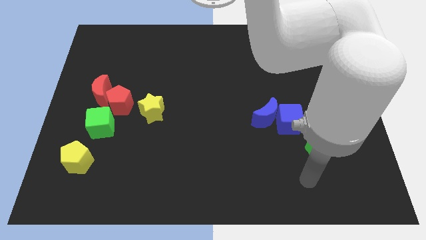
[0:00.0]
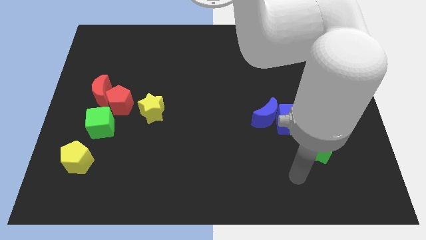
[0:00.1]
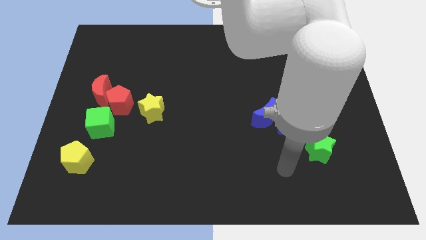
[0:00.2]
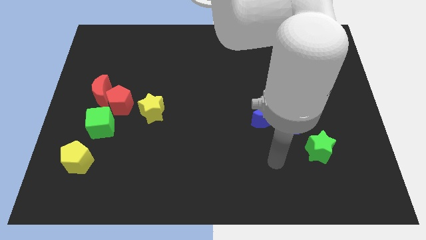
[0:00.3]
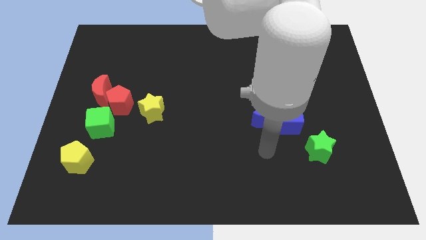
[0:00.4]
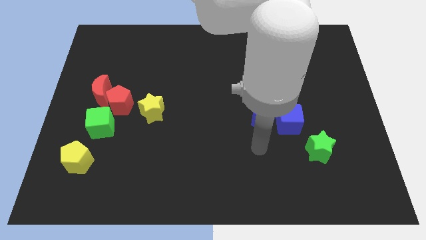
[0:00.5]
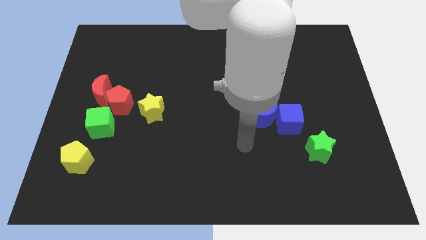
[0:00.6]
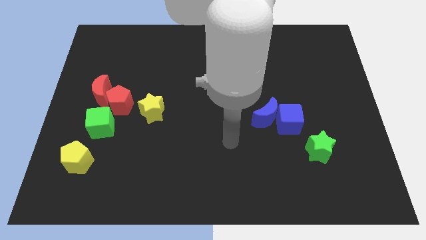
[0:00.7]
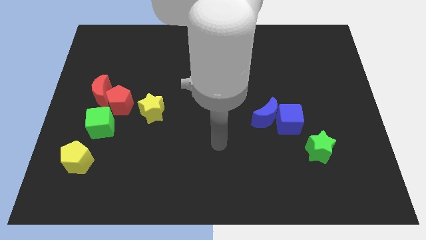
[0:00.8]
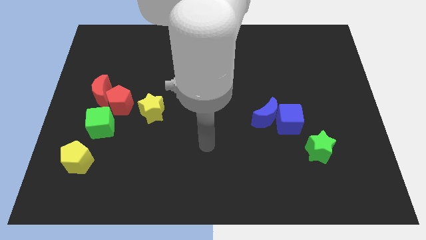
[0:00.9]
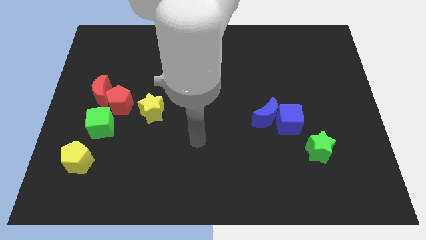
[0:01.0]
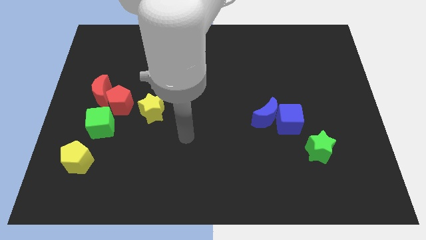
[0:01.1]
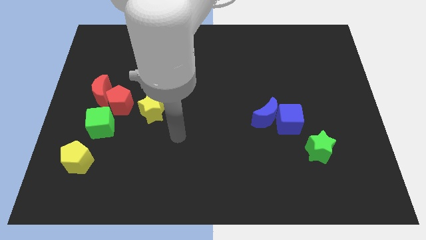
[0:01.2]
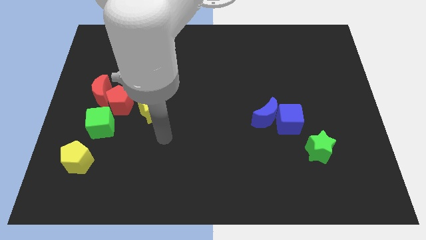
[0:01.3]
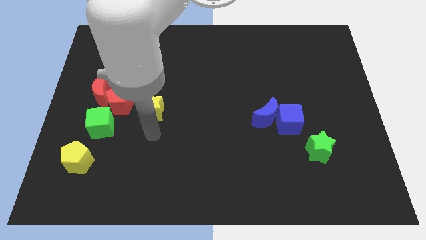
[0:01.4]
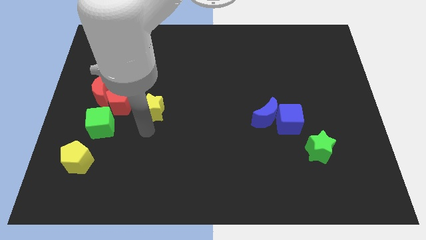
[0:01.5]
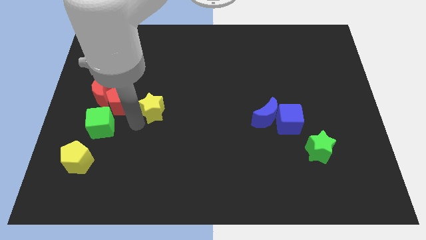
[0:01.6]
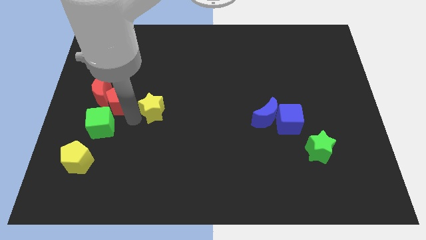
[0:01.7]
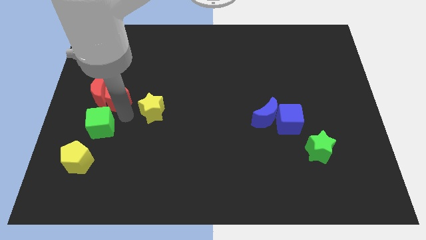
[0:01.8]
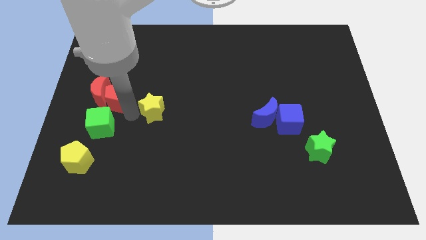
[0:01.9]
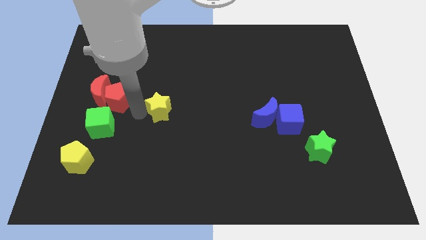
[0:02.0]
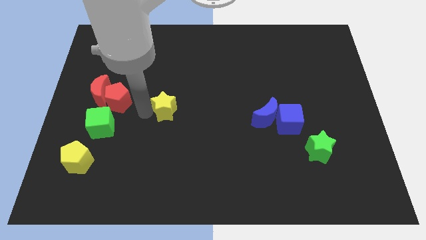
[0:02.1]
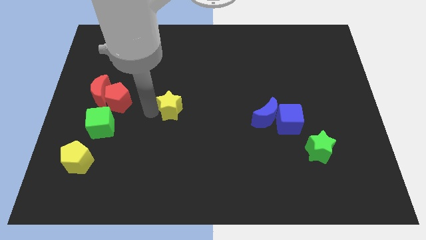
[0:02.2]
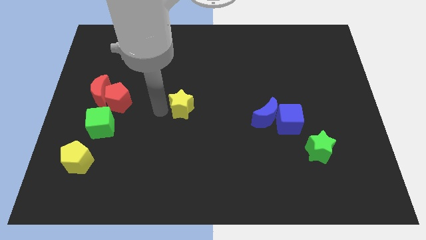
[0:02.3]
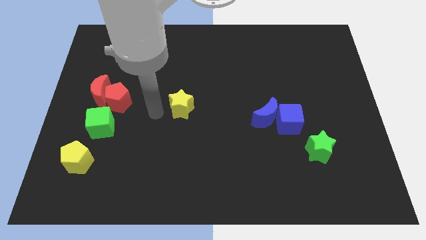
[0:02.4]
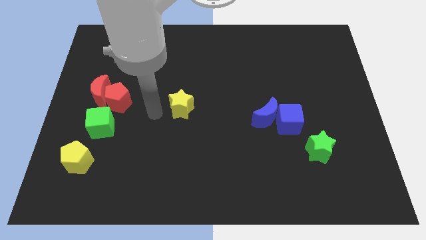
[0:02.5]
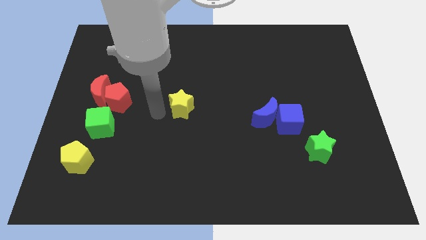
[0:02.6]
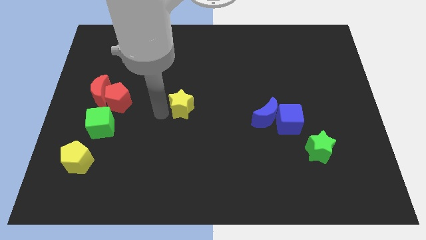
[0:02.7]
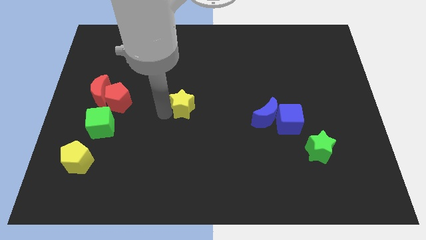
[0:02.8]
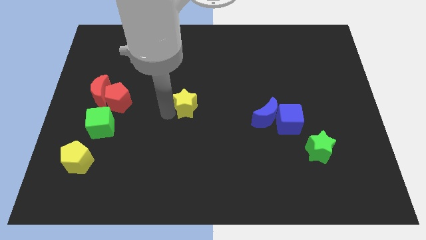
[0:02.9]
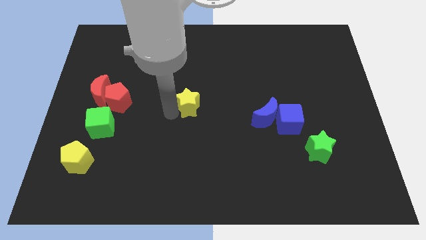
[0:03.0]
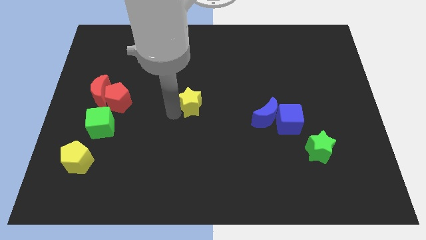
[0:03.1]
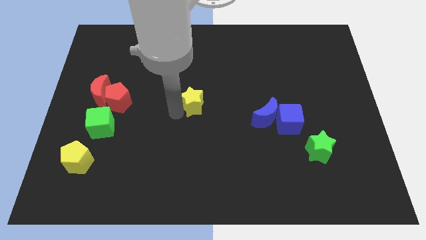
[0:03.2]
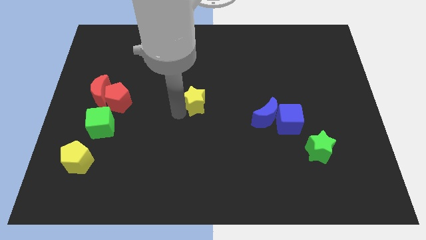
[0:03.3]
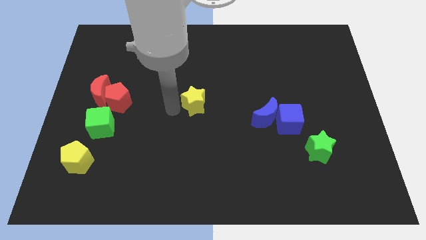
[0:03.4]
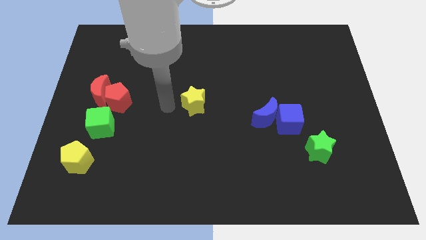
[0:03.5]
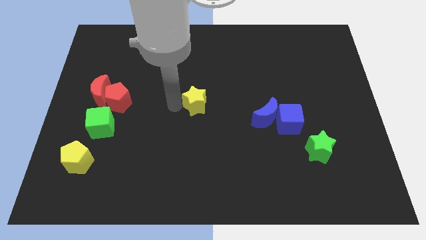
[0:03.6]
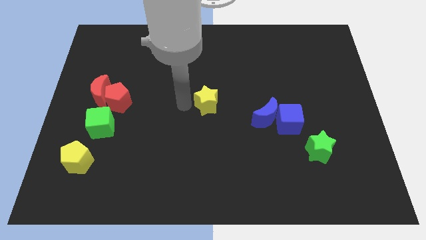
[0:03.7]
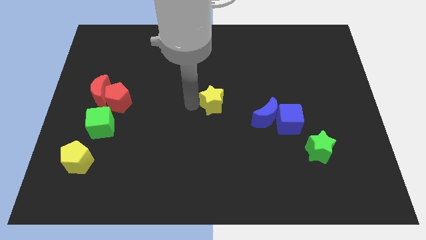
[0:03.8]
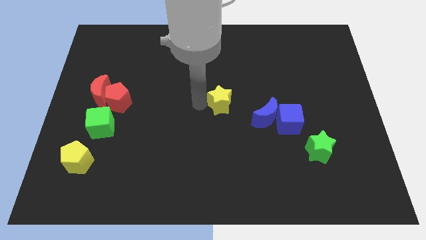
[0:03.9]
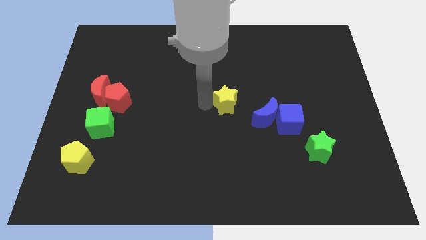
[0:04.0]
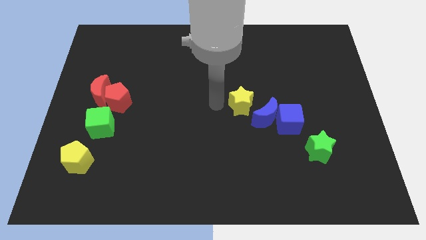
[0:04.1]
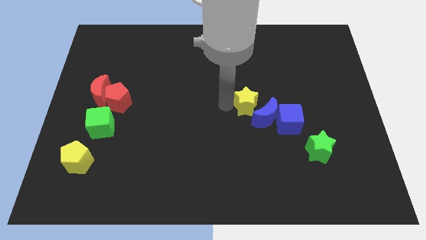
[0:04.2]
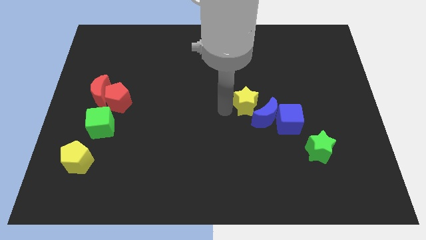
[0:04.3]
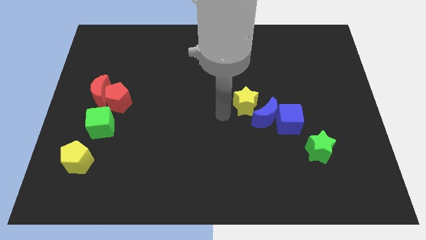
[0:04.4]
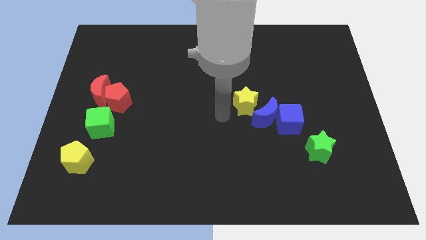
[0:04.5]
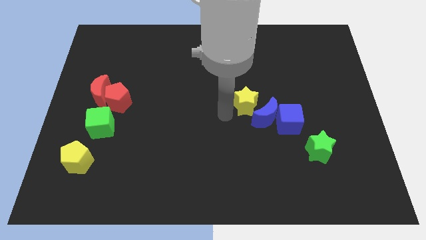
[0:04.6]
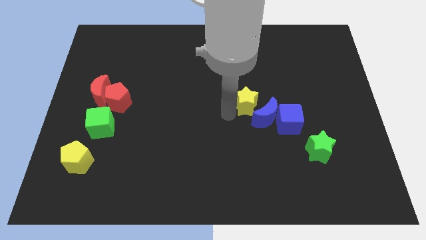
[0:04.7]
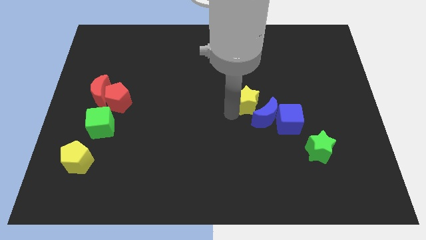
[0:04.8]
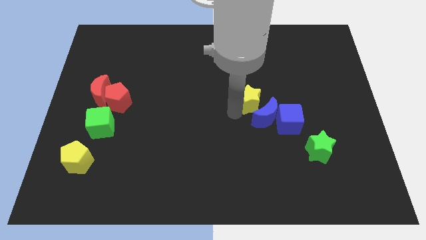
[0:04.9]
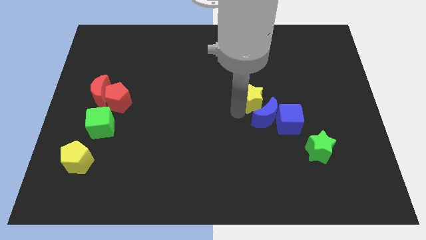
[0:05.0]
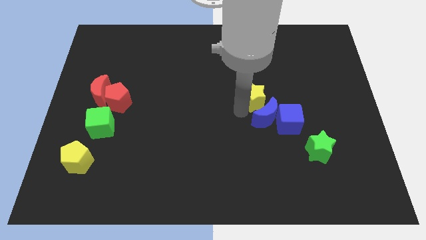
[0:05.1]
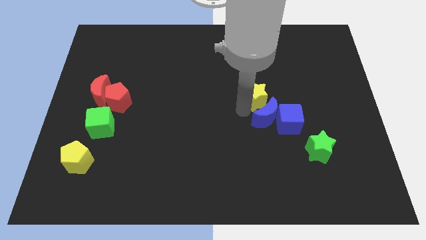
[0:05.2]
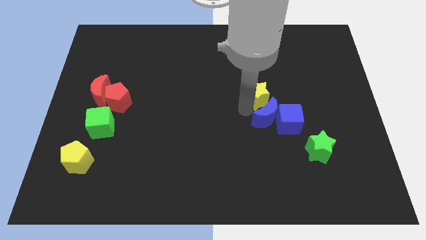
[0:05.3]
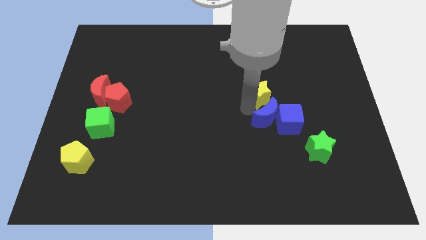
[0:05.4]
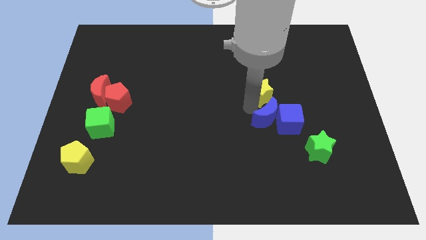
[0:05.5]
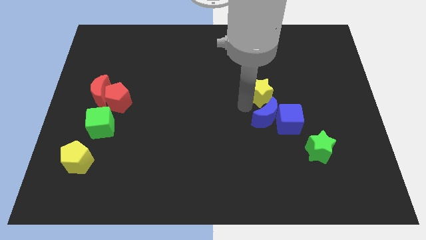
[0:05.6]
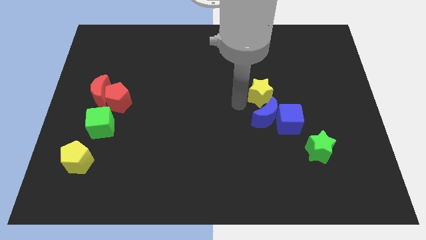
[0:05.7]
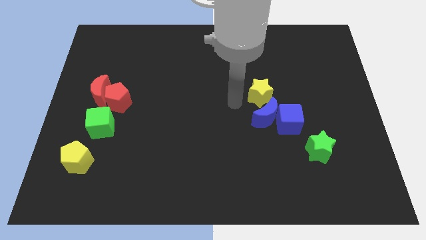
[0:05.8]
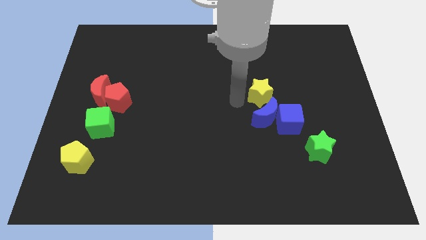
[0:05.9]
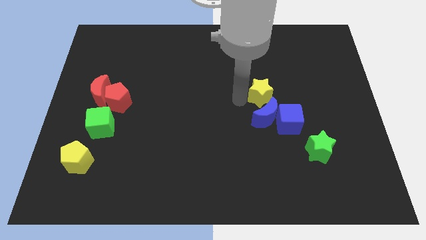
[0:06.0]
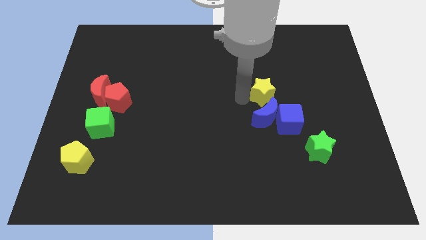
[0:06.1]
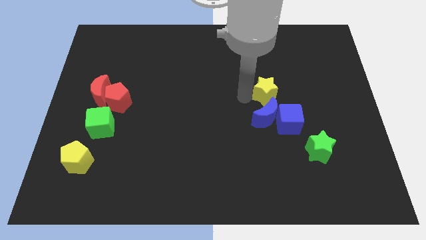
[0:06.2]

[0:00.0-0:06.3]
slide the yellow star to the top of the blue cube

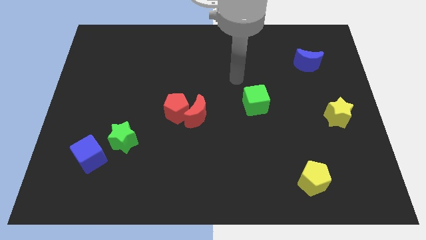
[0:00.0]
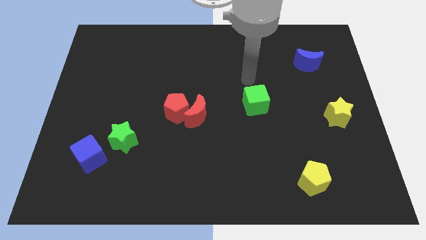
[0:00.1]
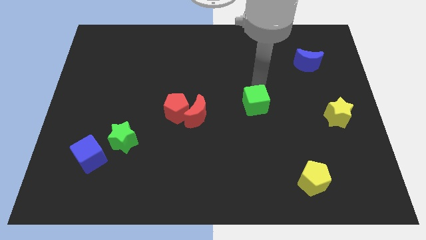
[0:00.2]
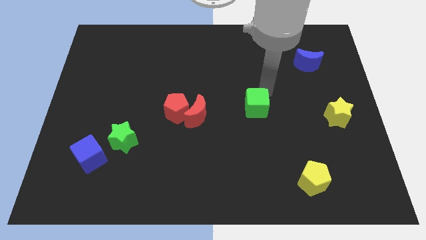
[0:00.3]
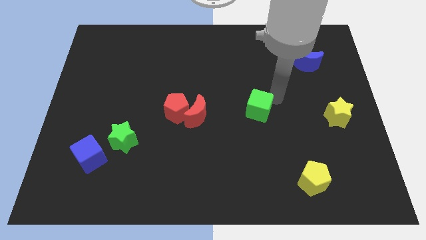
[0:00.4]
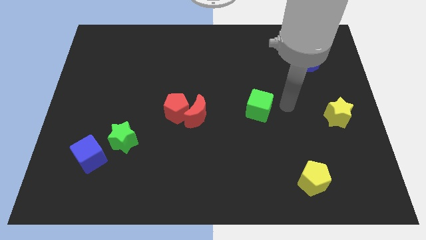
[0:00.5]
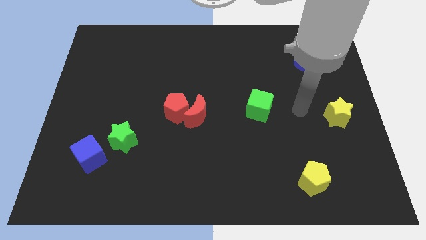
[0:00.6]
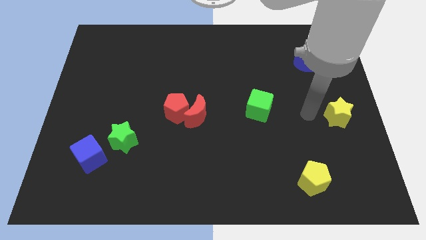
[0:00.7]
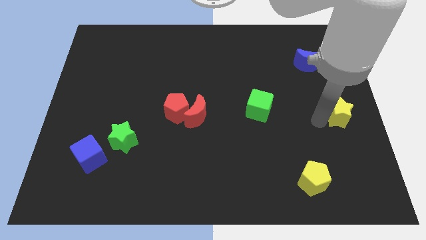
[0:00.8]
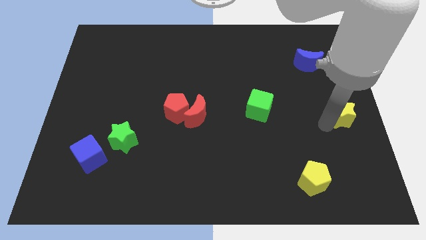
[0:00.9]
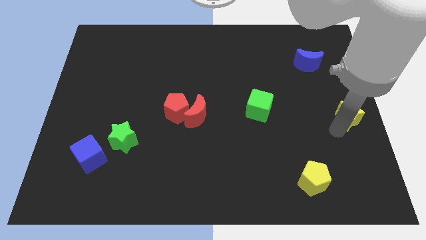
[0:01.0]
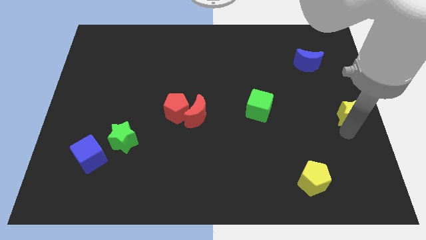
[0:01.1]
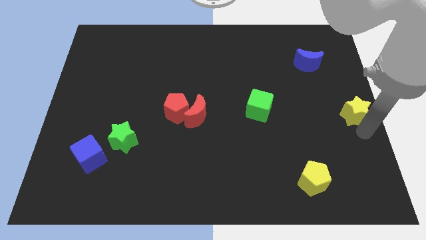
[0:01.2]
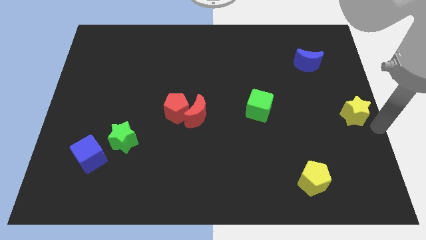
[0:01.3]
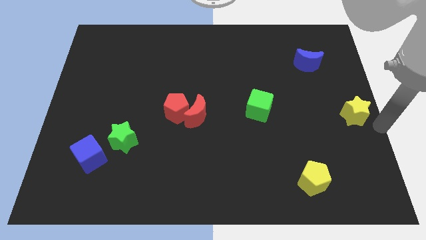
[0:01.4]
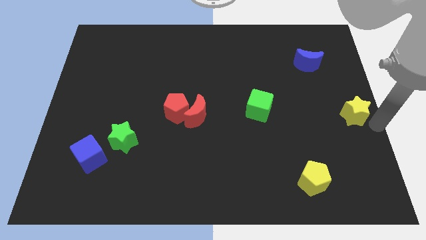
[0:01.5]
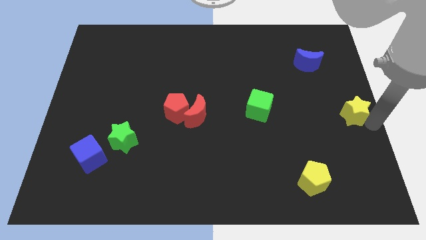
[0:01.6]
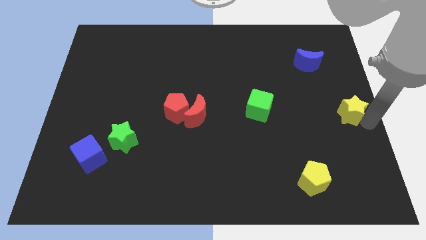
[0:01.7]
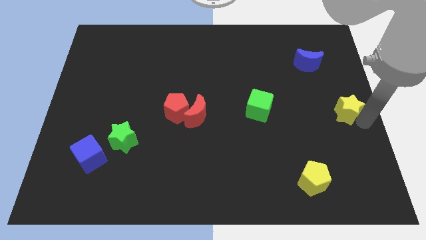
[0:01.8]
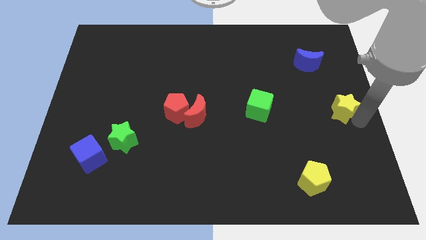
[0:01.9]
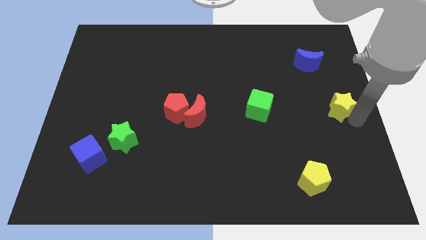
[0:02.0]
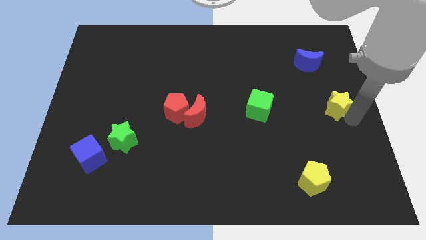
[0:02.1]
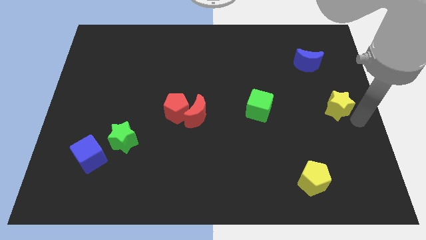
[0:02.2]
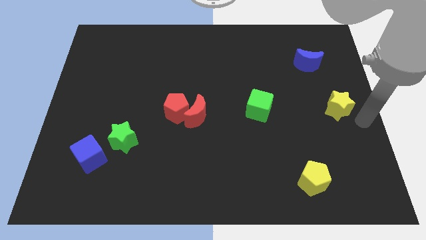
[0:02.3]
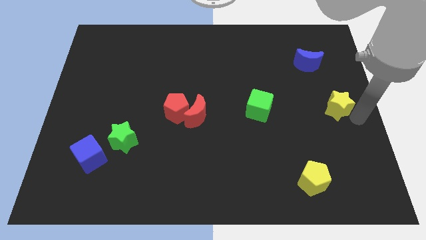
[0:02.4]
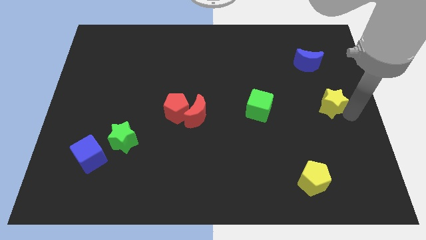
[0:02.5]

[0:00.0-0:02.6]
push the yellow star to the bottom side of the blue moon
